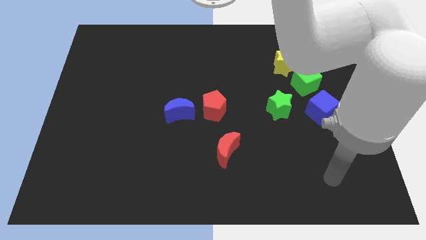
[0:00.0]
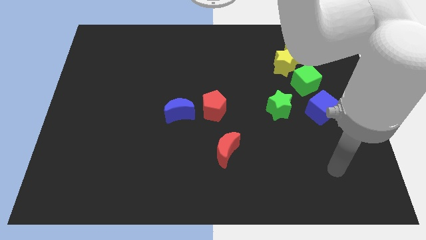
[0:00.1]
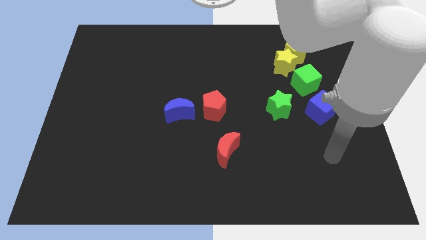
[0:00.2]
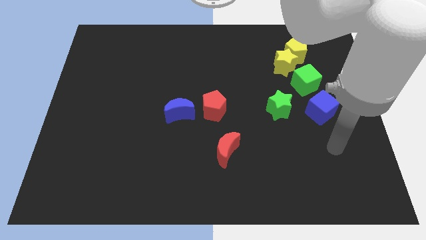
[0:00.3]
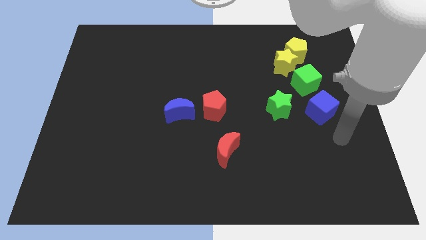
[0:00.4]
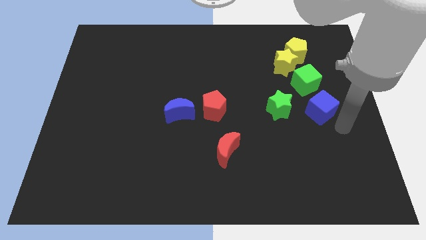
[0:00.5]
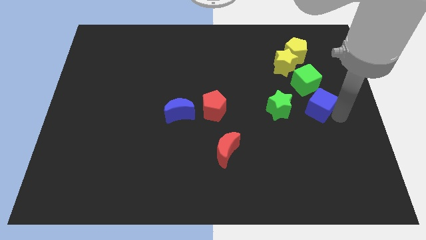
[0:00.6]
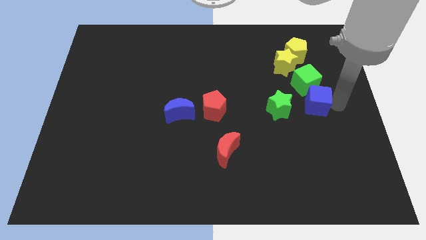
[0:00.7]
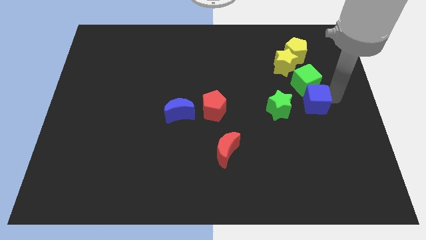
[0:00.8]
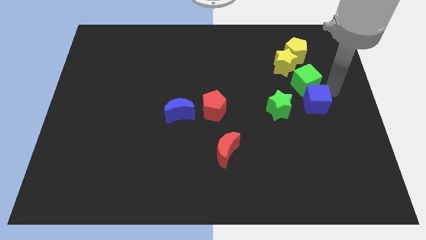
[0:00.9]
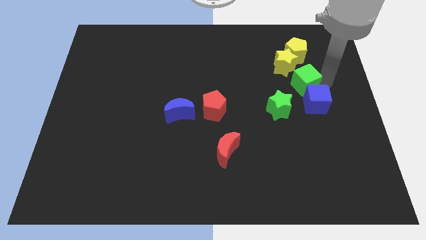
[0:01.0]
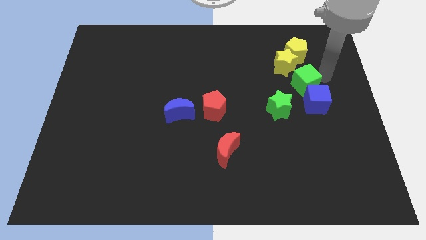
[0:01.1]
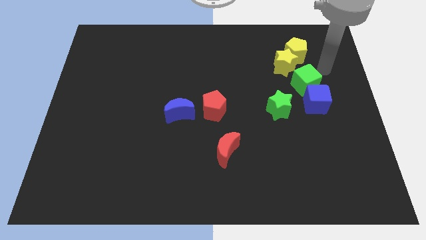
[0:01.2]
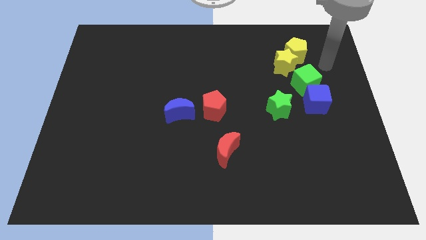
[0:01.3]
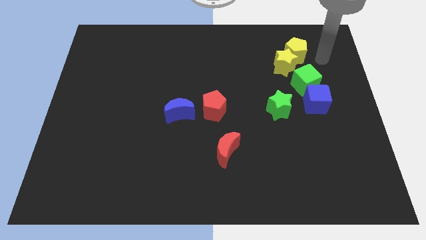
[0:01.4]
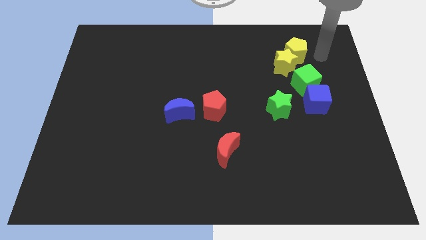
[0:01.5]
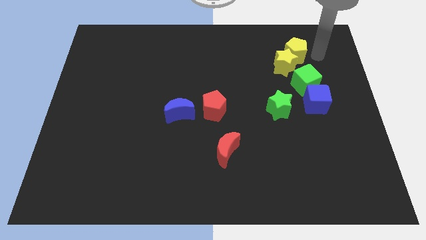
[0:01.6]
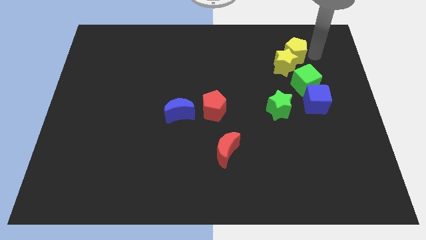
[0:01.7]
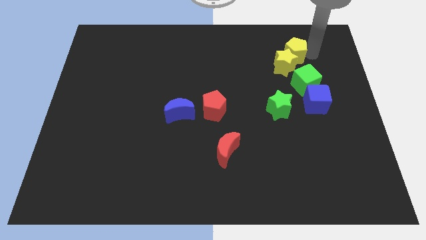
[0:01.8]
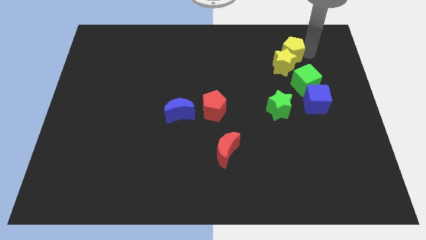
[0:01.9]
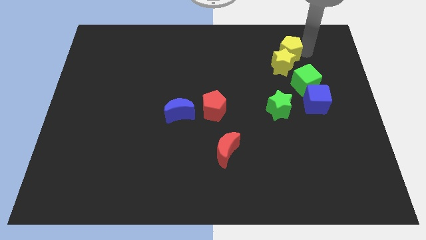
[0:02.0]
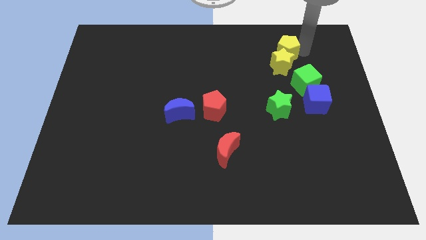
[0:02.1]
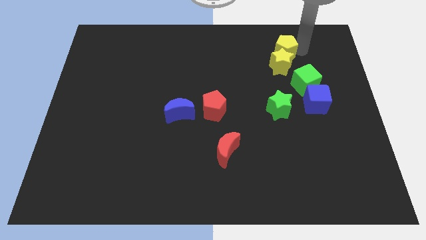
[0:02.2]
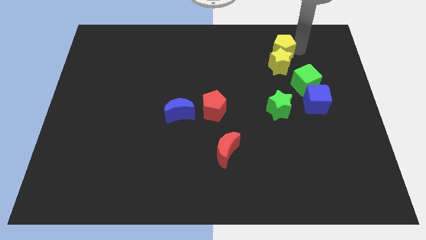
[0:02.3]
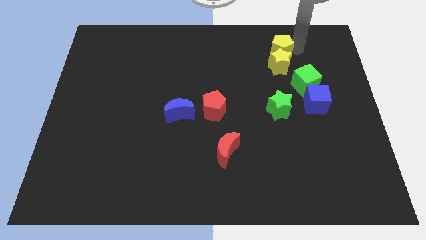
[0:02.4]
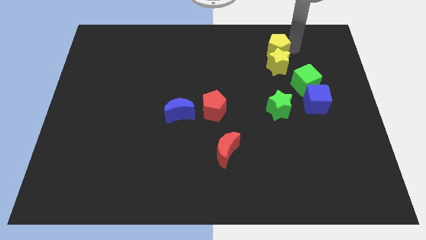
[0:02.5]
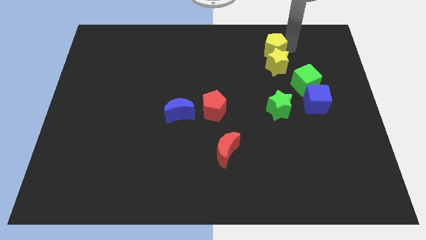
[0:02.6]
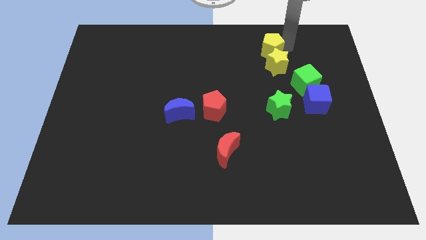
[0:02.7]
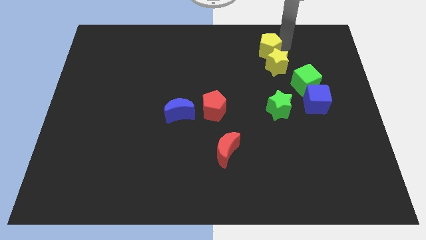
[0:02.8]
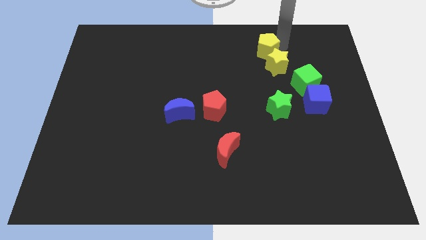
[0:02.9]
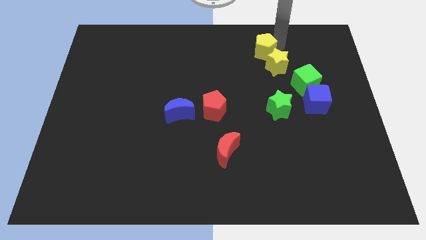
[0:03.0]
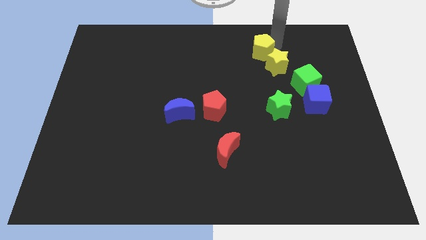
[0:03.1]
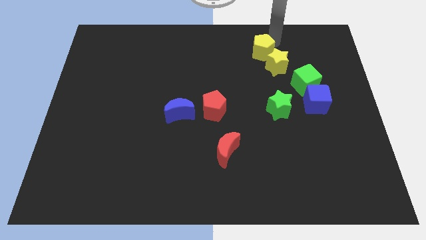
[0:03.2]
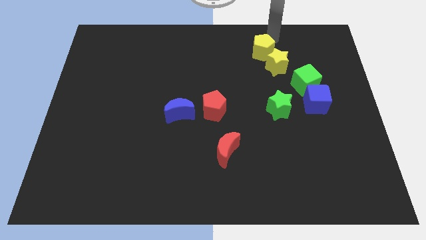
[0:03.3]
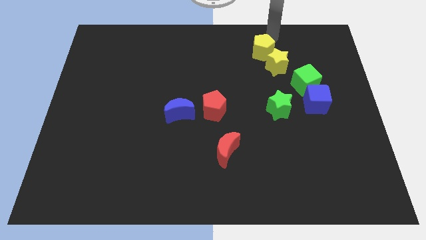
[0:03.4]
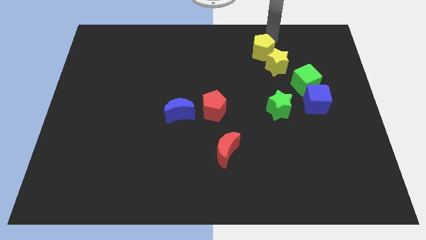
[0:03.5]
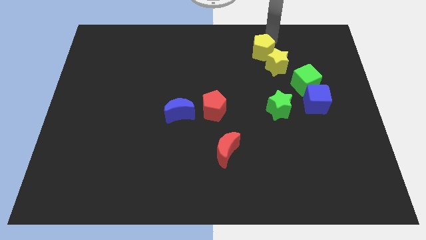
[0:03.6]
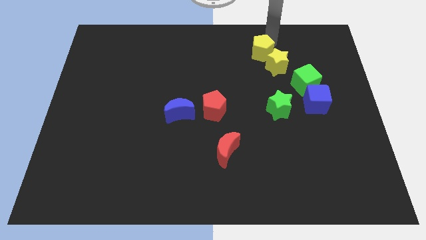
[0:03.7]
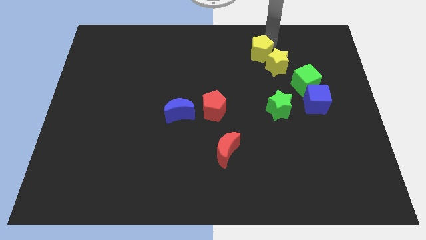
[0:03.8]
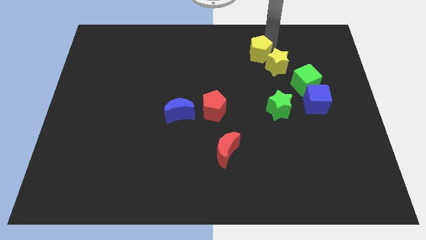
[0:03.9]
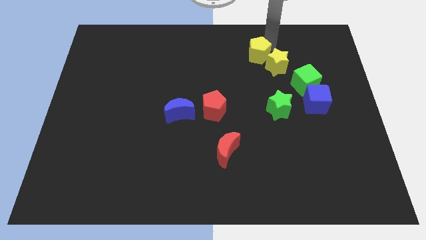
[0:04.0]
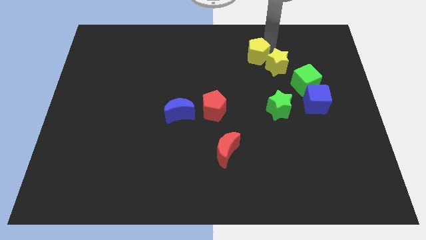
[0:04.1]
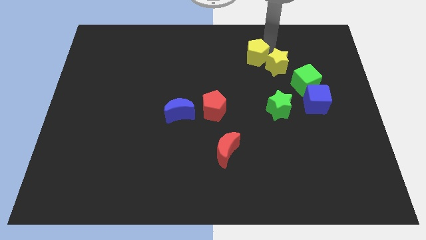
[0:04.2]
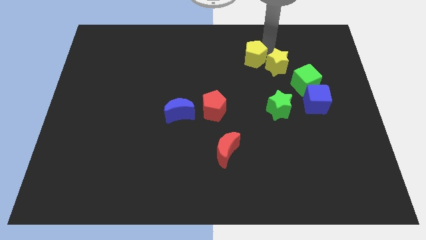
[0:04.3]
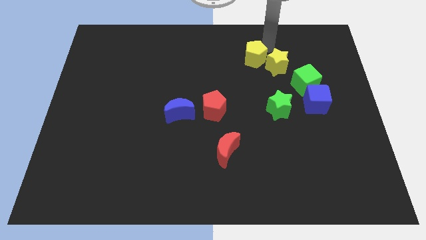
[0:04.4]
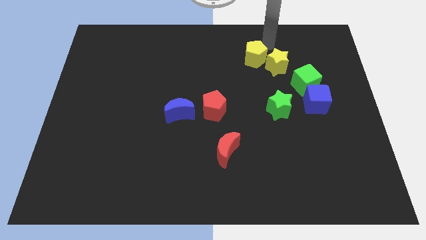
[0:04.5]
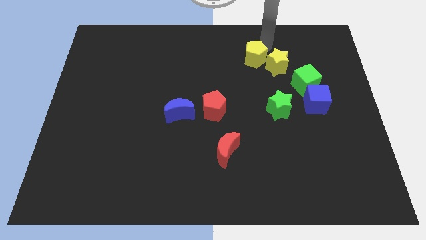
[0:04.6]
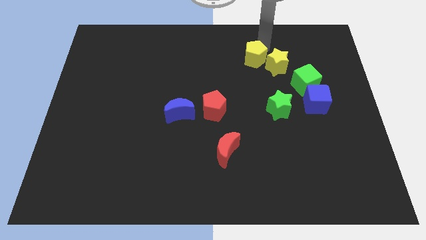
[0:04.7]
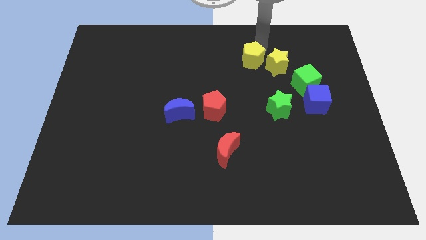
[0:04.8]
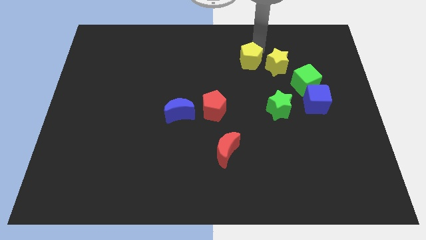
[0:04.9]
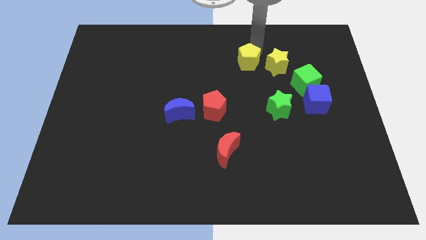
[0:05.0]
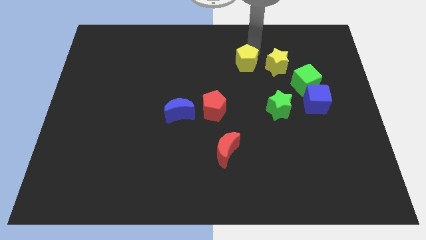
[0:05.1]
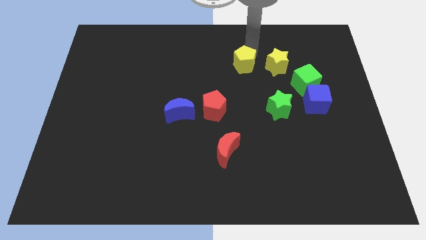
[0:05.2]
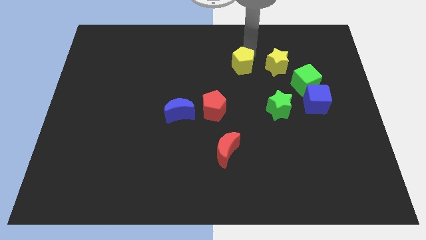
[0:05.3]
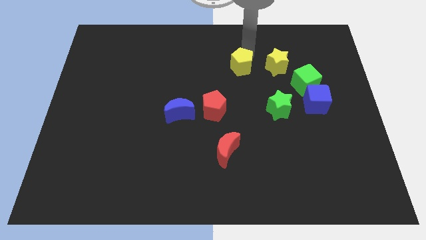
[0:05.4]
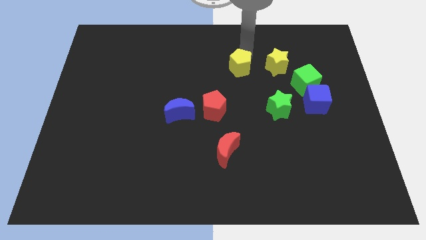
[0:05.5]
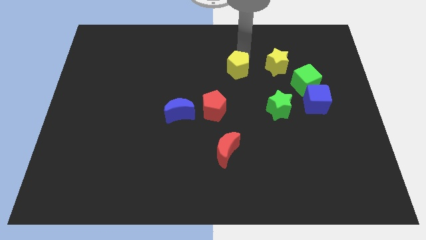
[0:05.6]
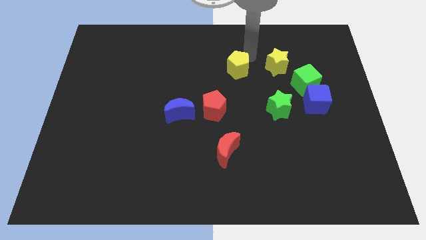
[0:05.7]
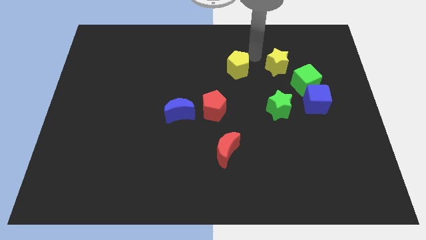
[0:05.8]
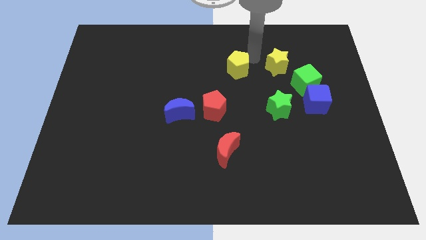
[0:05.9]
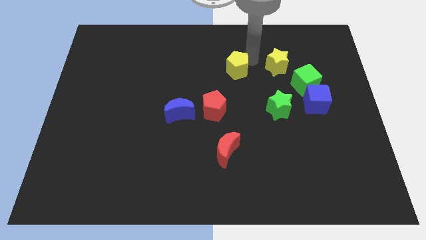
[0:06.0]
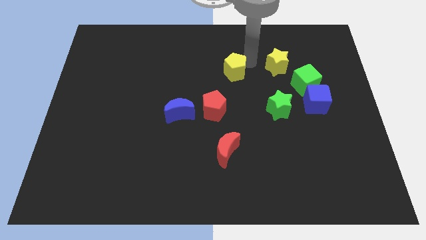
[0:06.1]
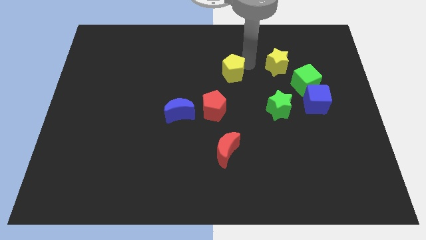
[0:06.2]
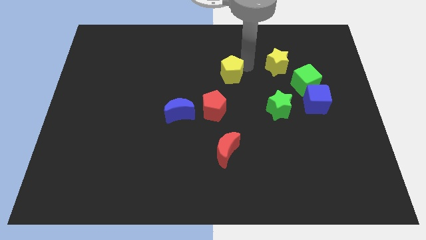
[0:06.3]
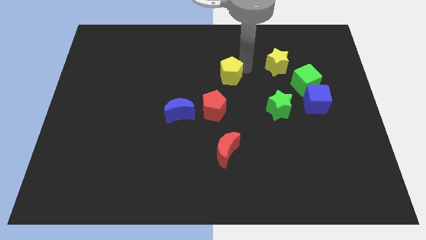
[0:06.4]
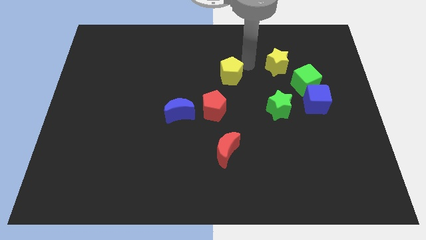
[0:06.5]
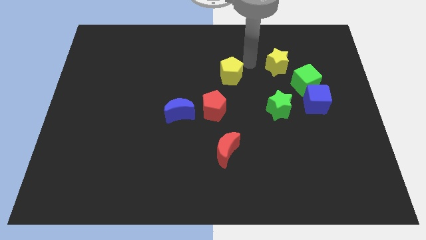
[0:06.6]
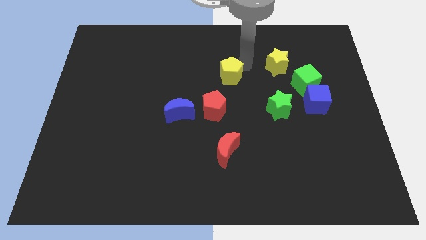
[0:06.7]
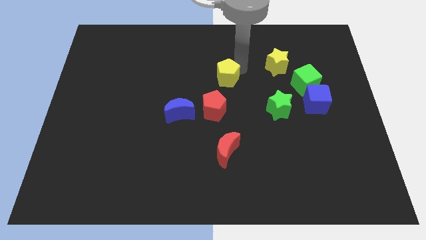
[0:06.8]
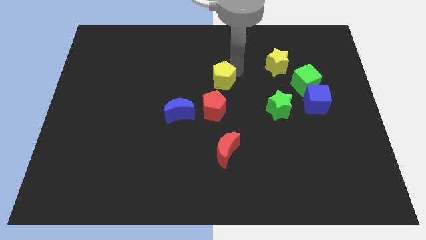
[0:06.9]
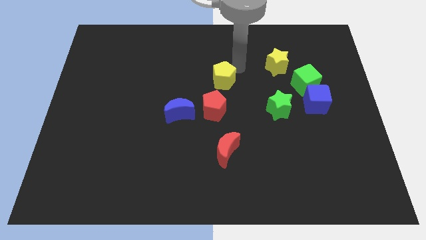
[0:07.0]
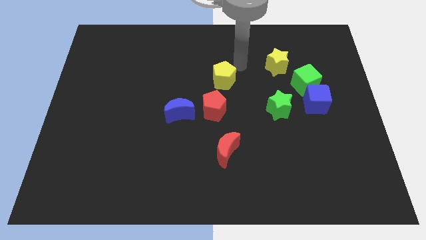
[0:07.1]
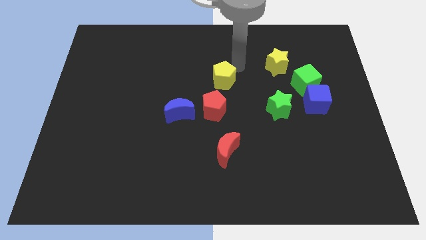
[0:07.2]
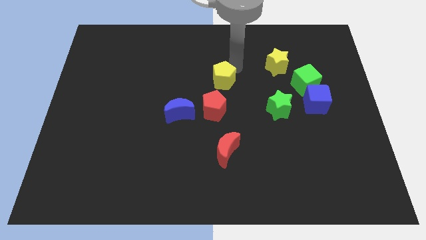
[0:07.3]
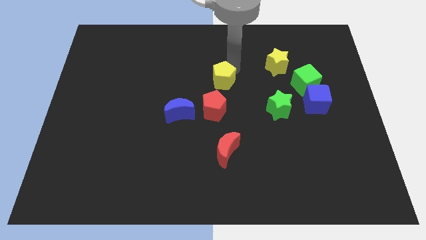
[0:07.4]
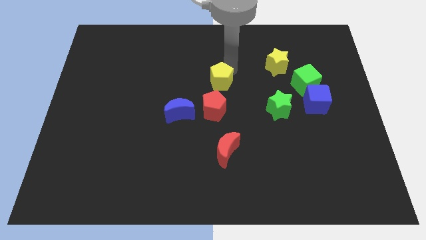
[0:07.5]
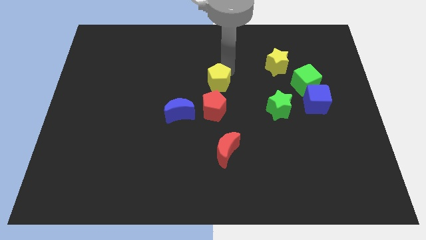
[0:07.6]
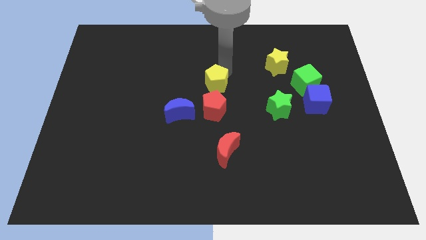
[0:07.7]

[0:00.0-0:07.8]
push the yellow pentagon to the top right of the blue moon
